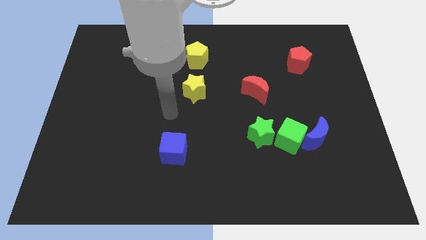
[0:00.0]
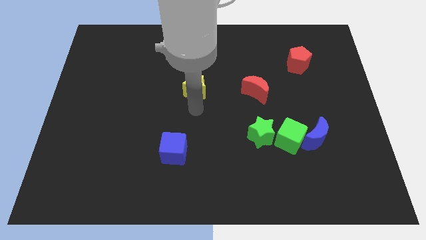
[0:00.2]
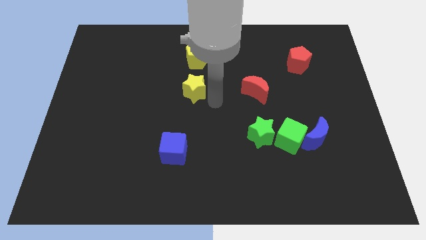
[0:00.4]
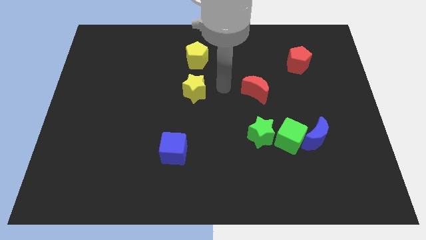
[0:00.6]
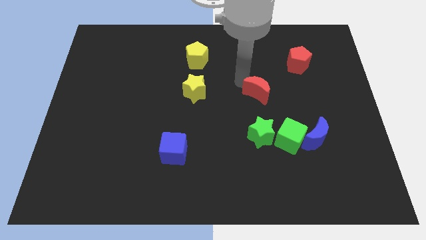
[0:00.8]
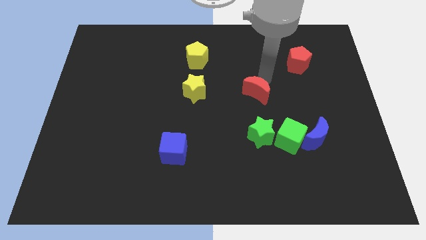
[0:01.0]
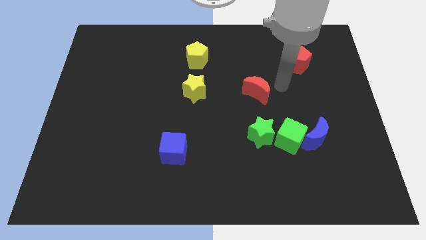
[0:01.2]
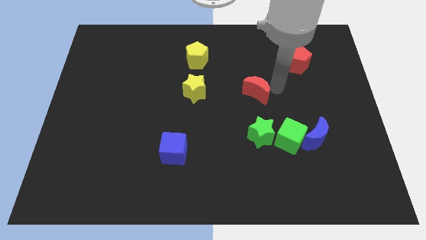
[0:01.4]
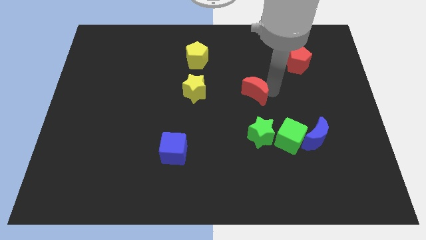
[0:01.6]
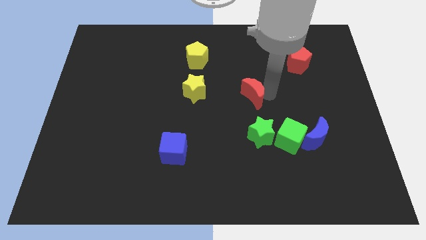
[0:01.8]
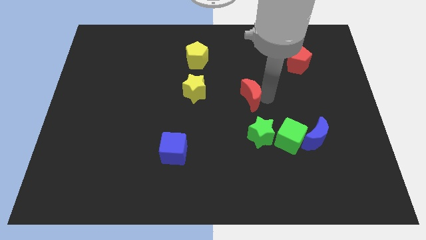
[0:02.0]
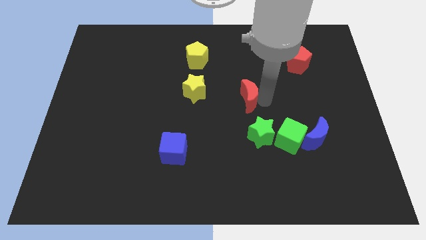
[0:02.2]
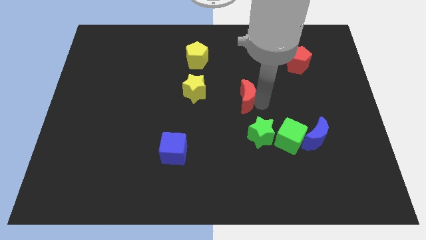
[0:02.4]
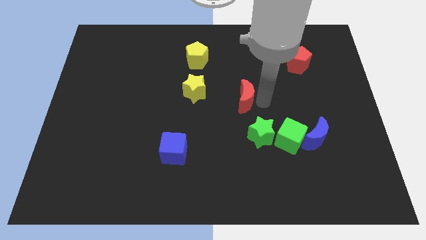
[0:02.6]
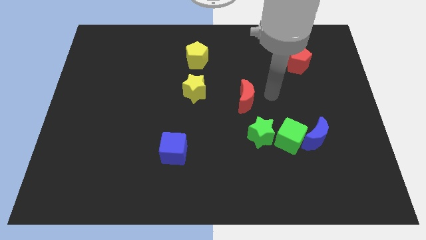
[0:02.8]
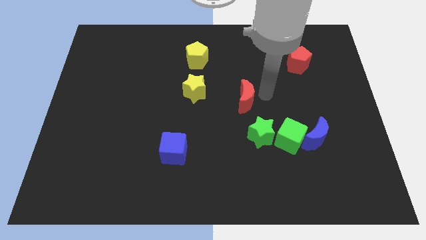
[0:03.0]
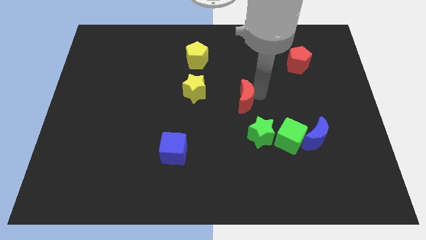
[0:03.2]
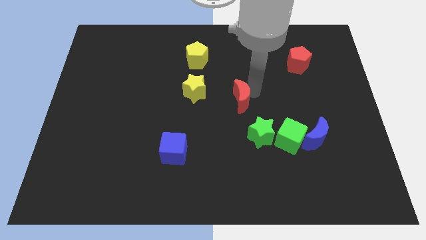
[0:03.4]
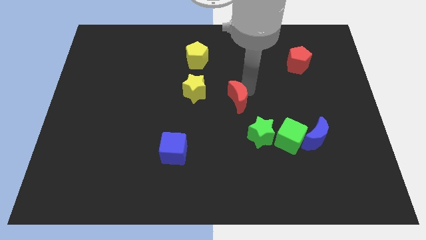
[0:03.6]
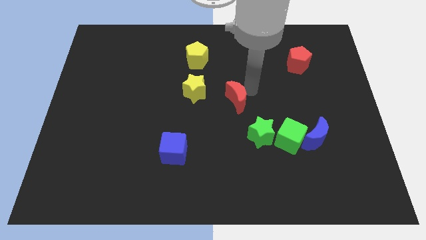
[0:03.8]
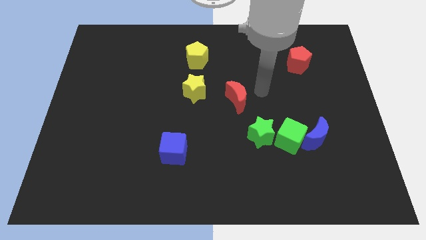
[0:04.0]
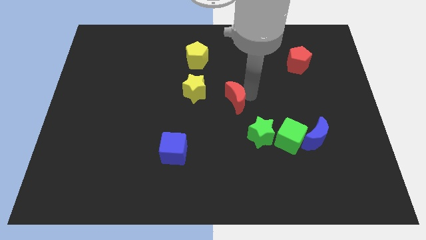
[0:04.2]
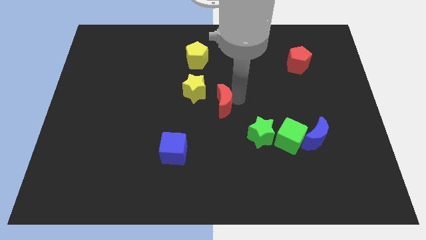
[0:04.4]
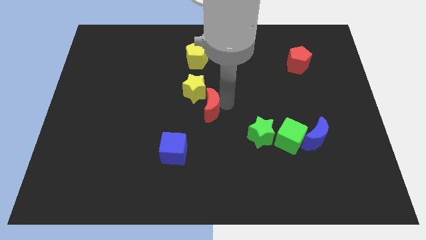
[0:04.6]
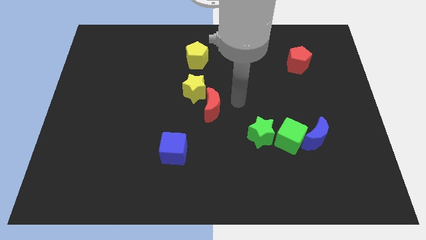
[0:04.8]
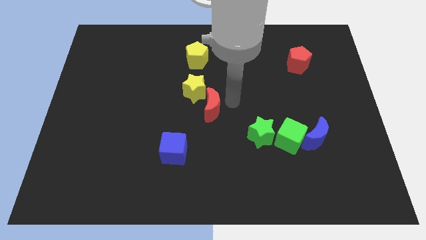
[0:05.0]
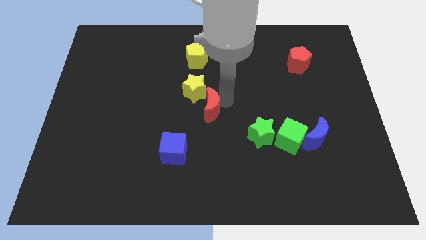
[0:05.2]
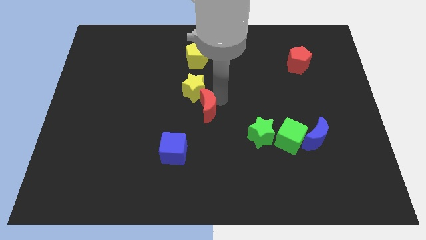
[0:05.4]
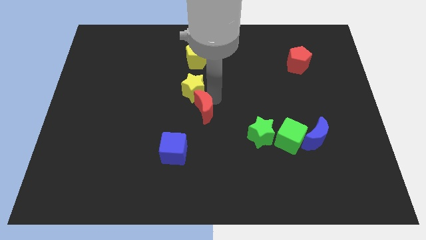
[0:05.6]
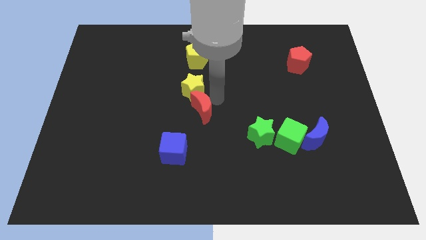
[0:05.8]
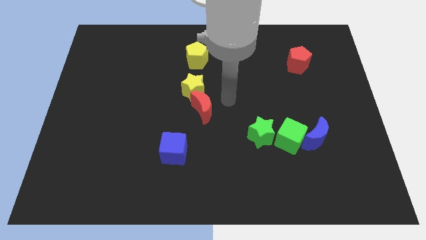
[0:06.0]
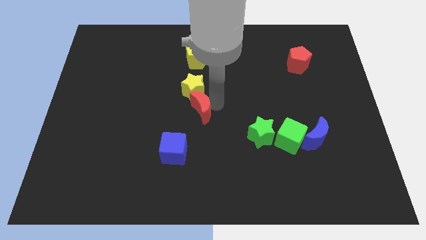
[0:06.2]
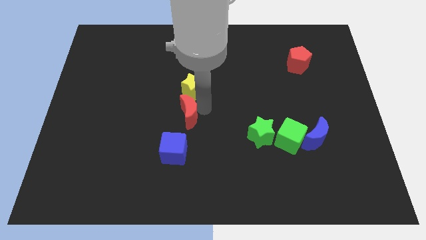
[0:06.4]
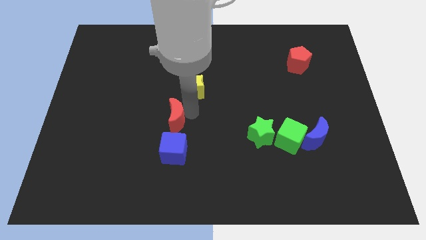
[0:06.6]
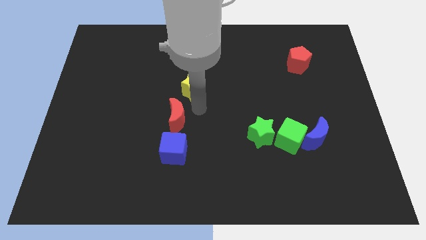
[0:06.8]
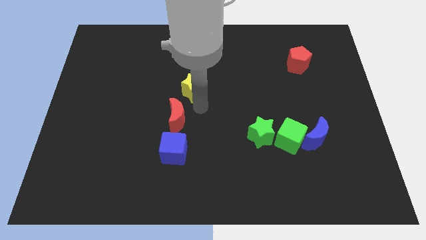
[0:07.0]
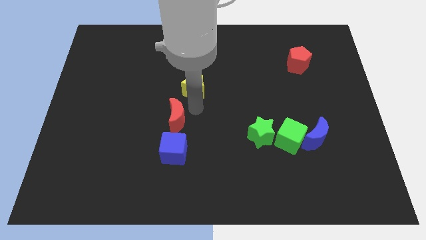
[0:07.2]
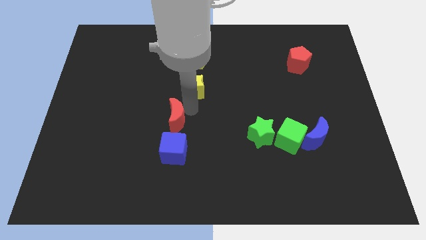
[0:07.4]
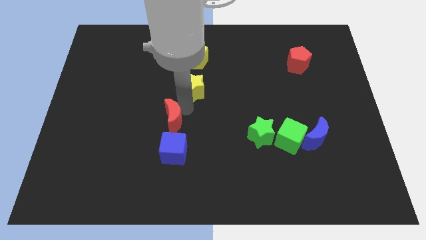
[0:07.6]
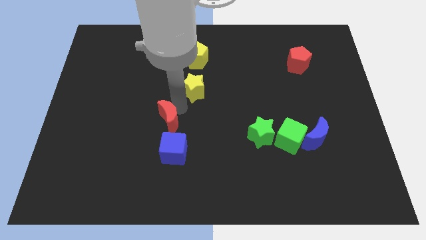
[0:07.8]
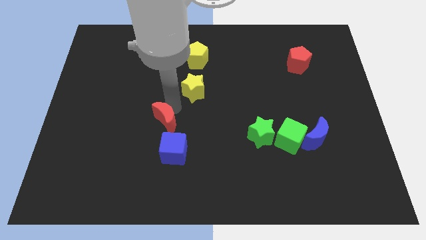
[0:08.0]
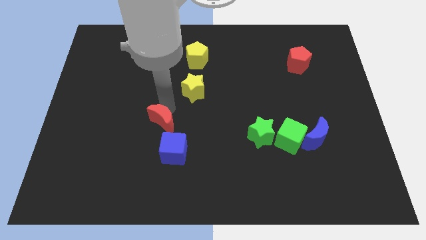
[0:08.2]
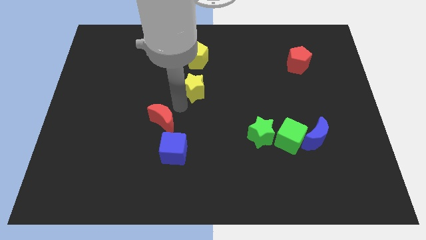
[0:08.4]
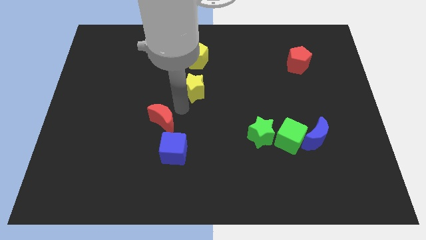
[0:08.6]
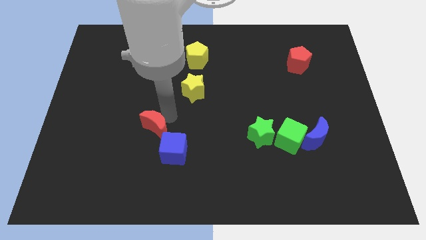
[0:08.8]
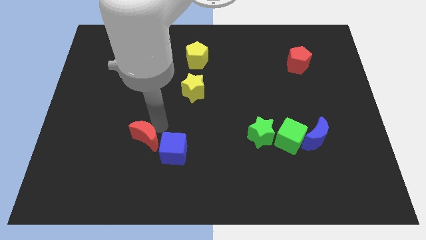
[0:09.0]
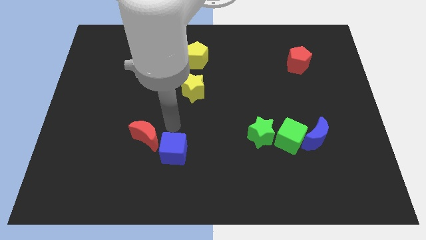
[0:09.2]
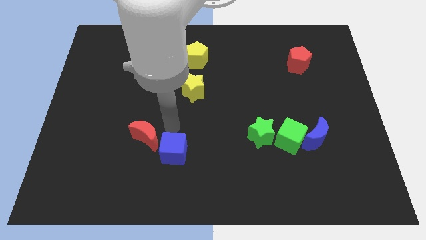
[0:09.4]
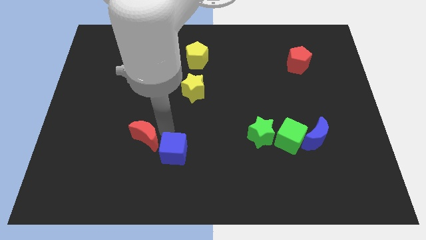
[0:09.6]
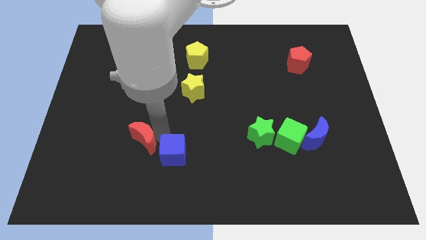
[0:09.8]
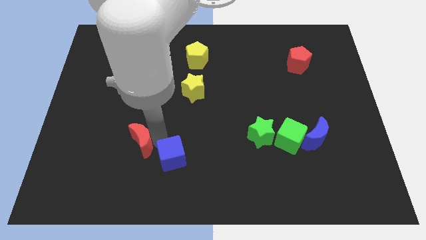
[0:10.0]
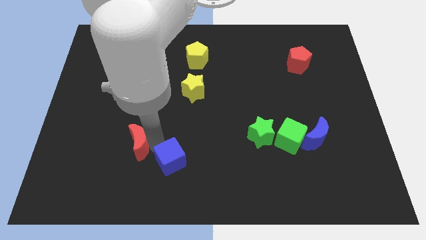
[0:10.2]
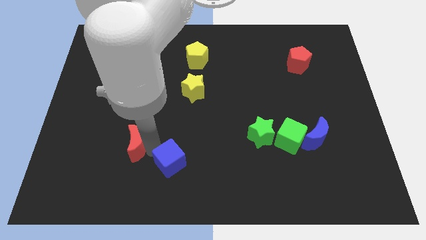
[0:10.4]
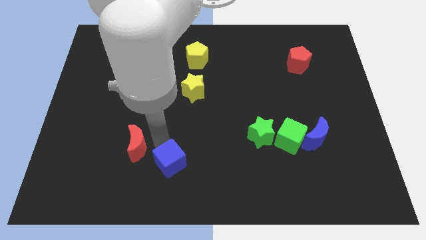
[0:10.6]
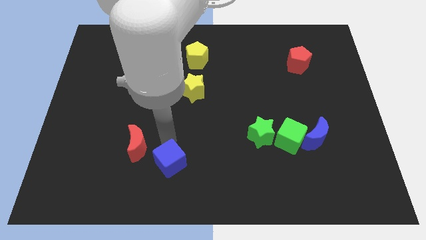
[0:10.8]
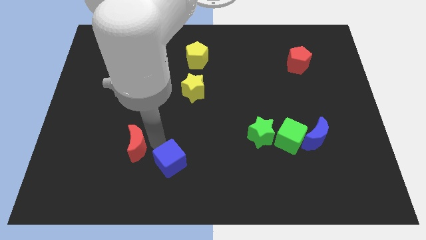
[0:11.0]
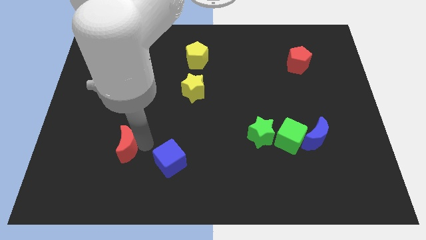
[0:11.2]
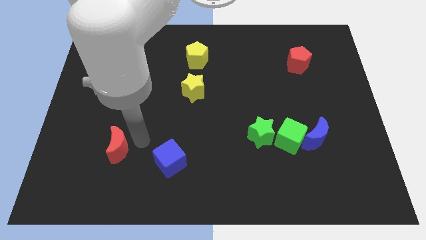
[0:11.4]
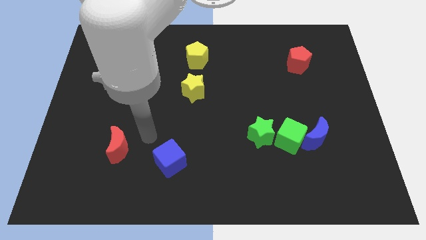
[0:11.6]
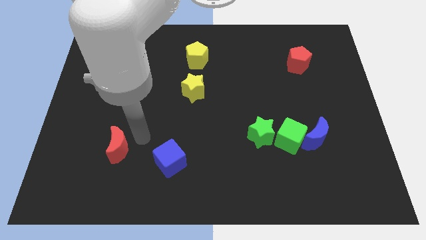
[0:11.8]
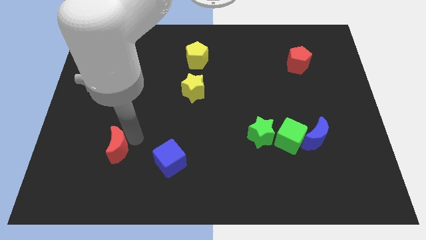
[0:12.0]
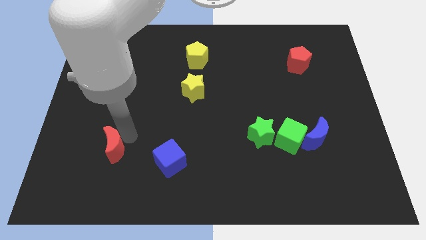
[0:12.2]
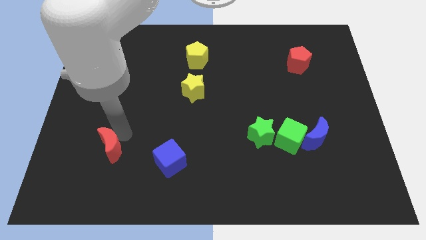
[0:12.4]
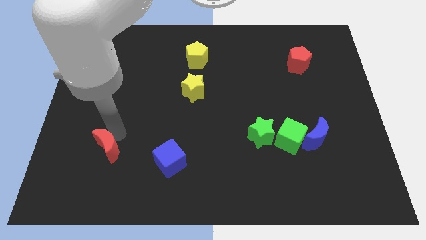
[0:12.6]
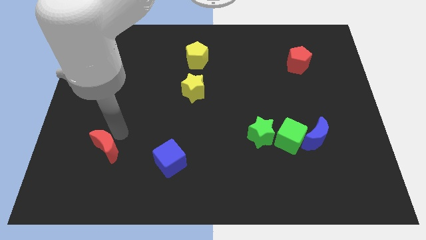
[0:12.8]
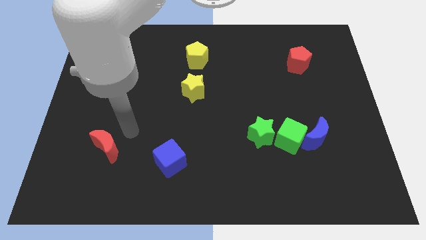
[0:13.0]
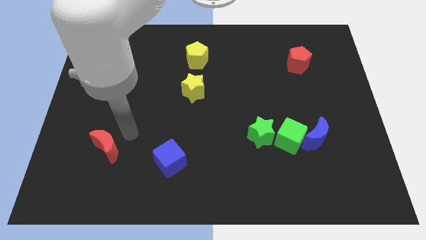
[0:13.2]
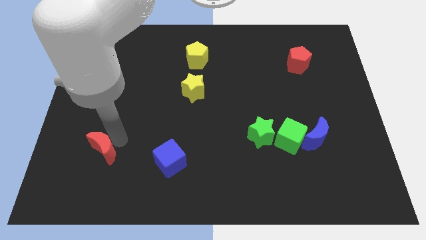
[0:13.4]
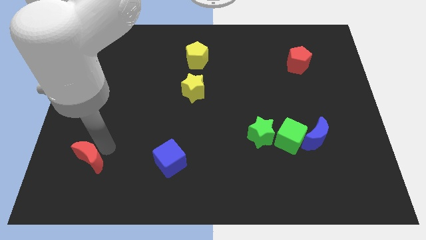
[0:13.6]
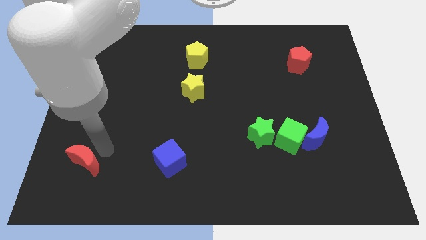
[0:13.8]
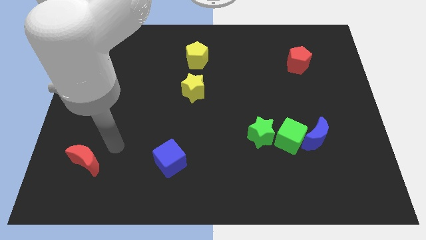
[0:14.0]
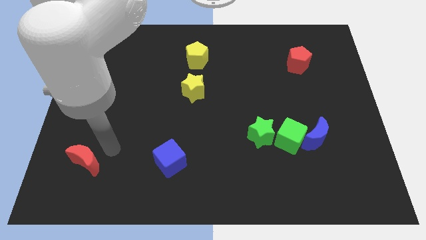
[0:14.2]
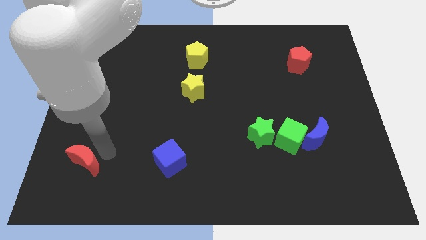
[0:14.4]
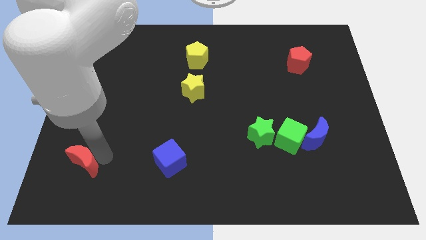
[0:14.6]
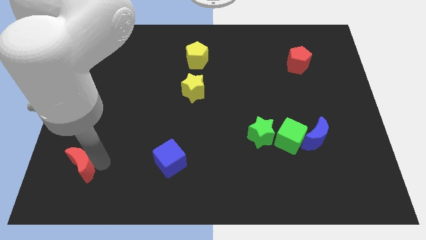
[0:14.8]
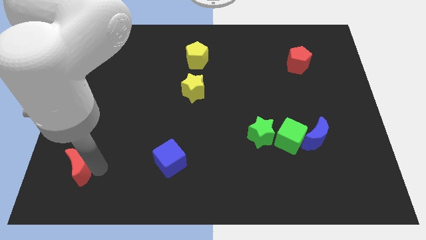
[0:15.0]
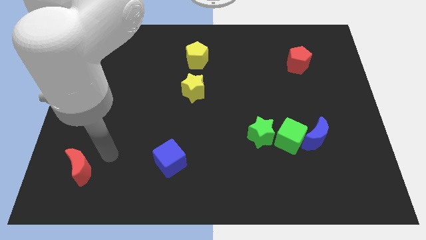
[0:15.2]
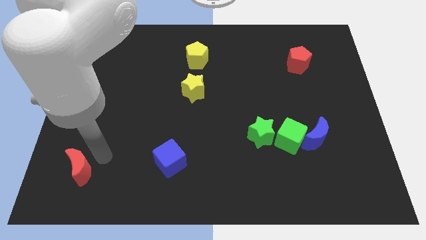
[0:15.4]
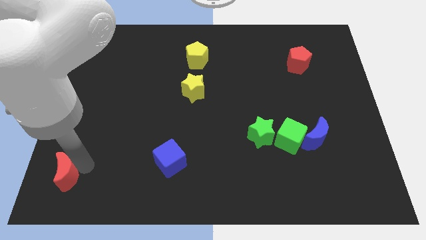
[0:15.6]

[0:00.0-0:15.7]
move the red moon to the bottom left of the board
